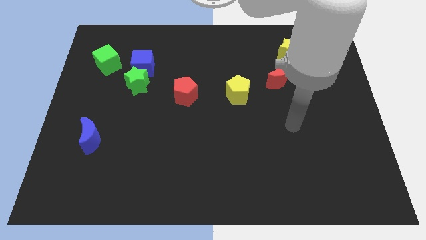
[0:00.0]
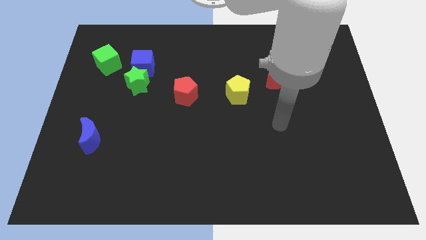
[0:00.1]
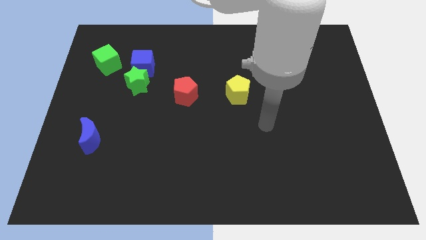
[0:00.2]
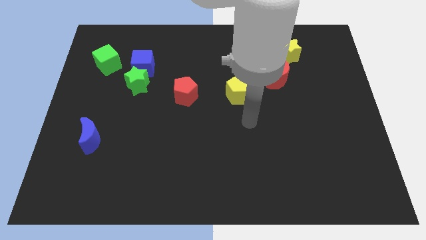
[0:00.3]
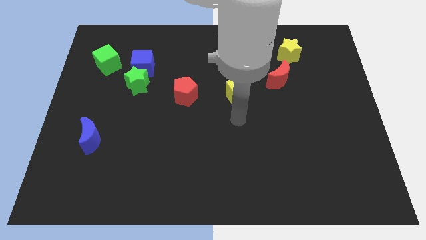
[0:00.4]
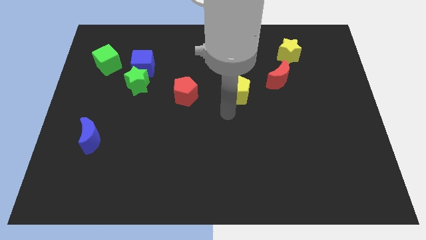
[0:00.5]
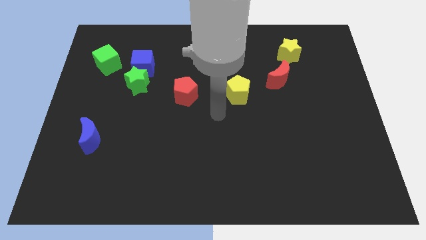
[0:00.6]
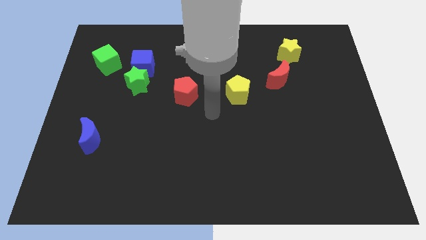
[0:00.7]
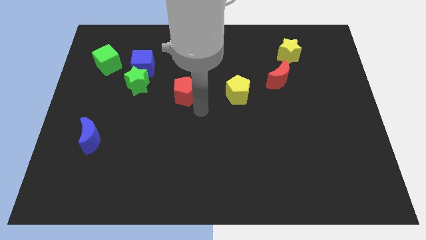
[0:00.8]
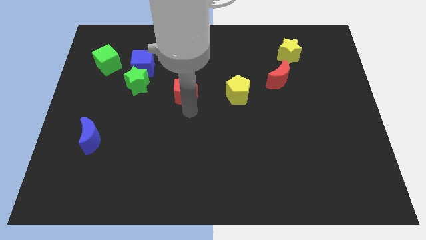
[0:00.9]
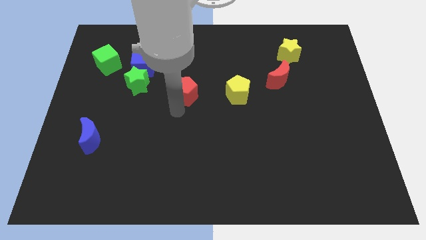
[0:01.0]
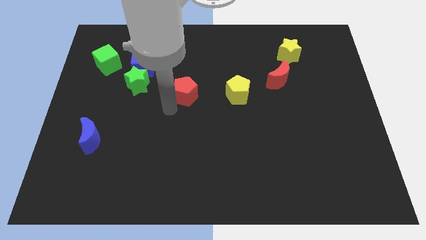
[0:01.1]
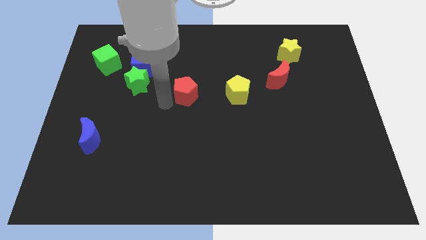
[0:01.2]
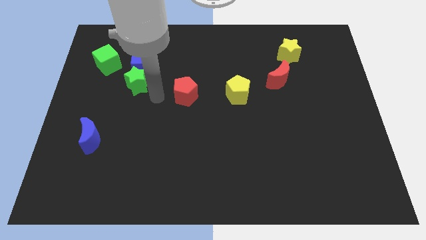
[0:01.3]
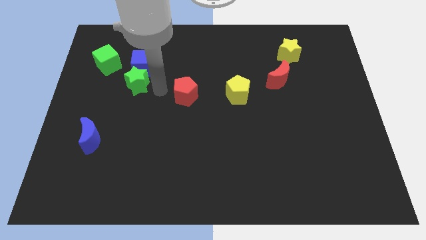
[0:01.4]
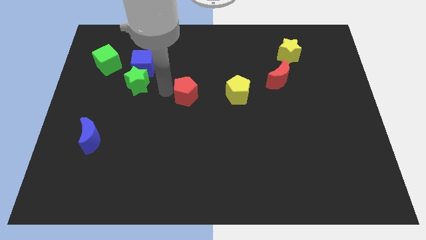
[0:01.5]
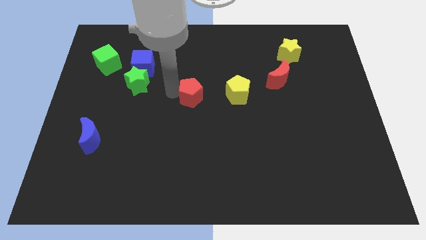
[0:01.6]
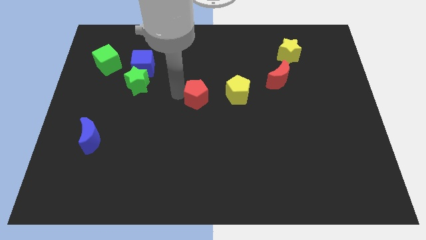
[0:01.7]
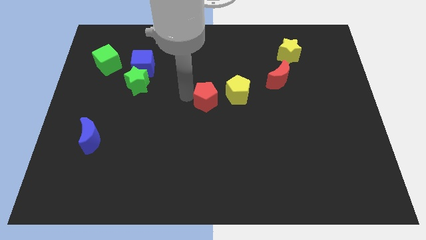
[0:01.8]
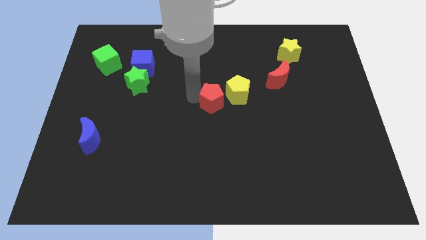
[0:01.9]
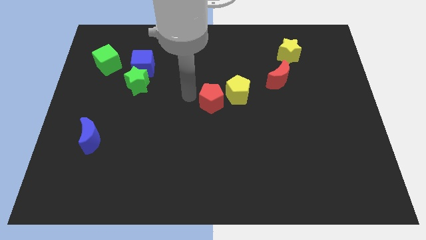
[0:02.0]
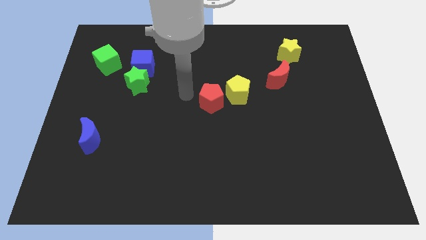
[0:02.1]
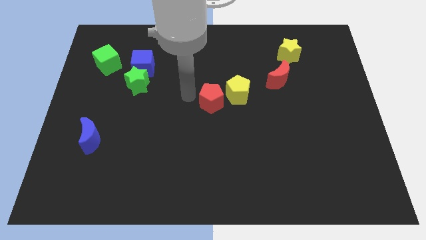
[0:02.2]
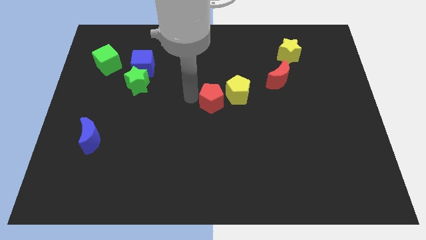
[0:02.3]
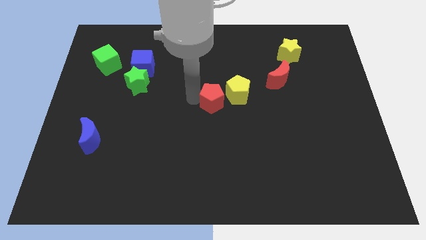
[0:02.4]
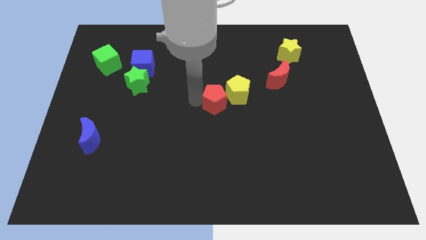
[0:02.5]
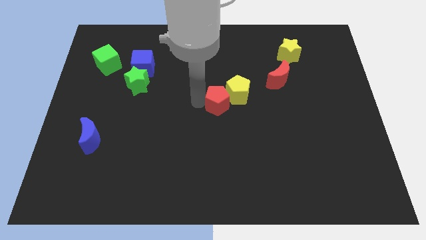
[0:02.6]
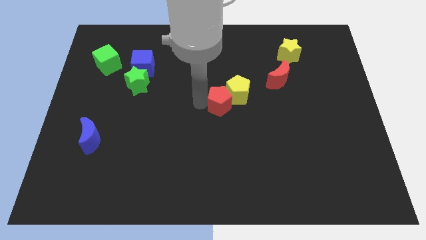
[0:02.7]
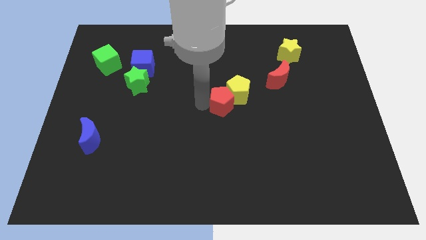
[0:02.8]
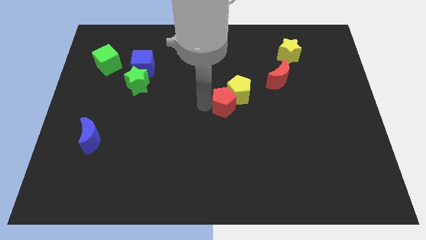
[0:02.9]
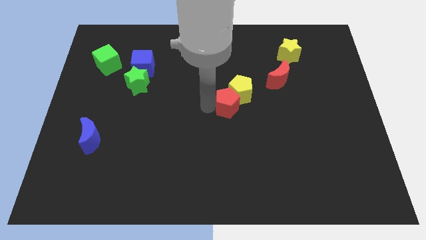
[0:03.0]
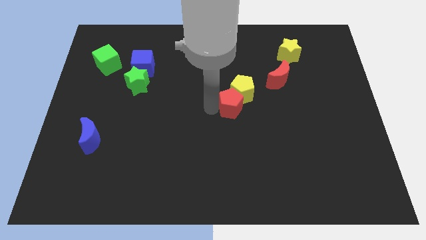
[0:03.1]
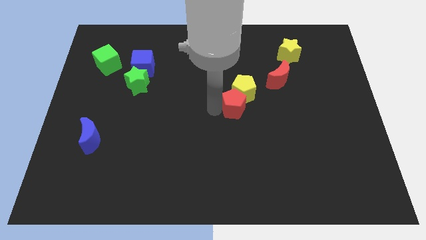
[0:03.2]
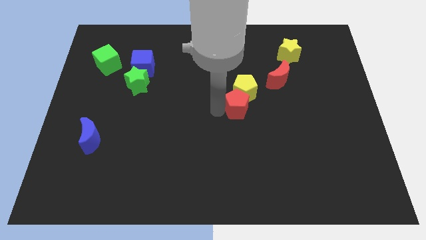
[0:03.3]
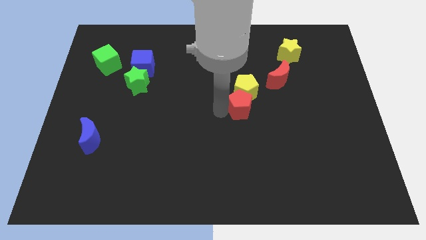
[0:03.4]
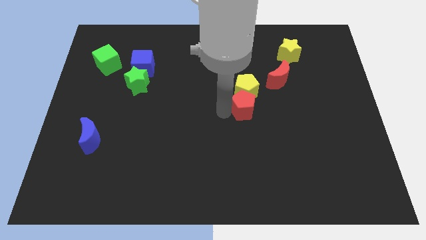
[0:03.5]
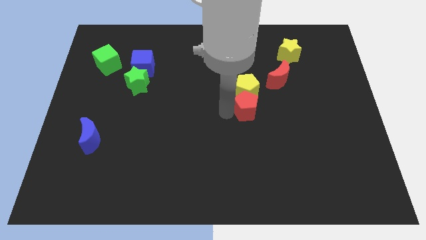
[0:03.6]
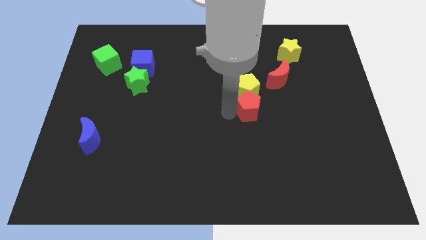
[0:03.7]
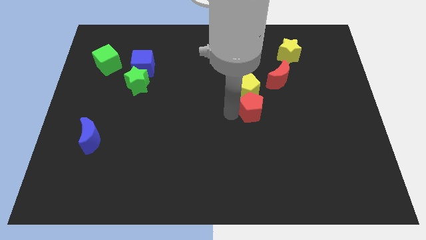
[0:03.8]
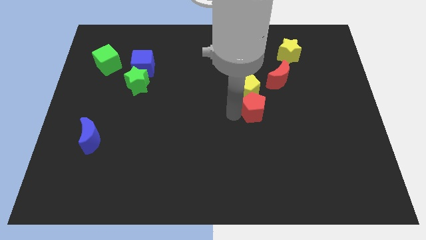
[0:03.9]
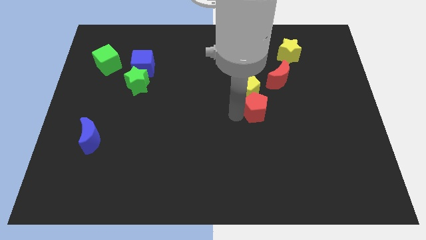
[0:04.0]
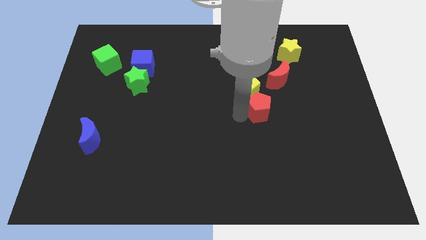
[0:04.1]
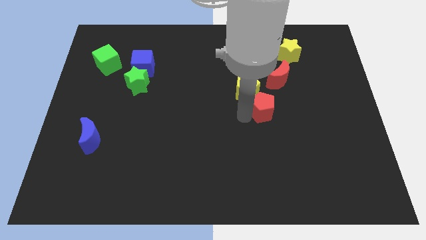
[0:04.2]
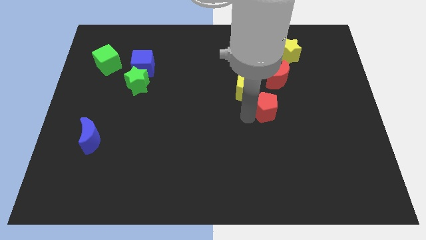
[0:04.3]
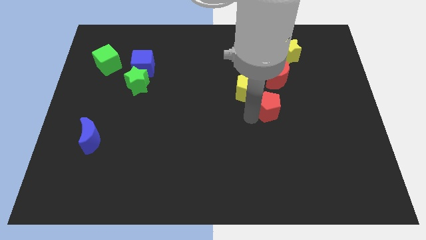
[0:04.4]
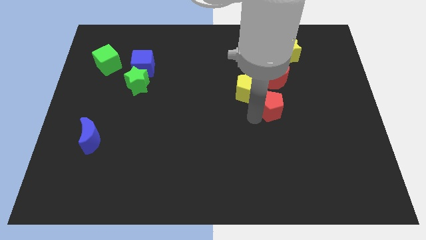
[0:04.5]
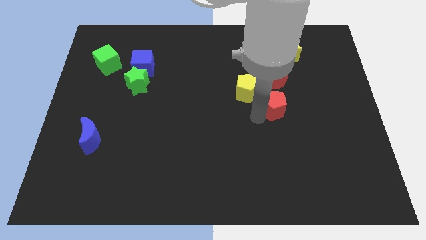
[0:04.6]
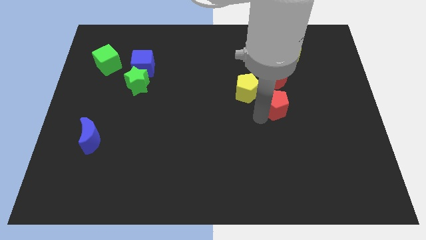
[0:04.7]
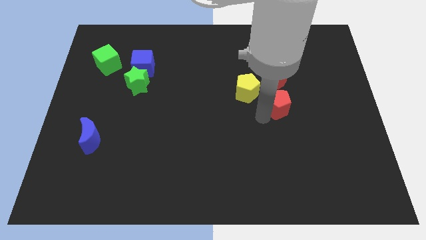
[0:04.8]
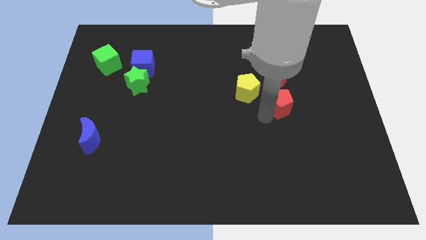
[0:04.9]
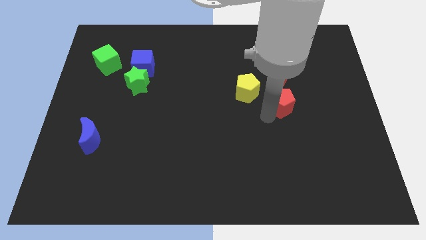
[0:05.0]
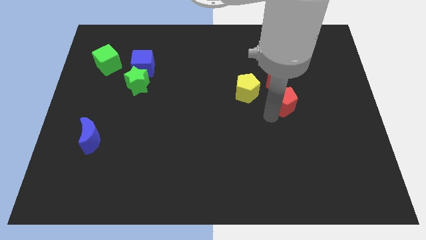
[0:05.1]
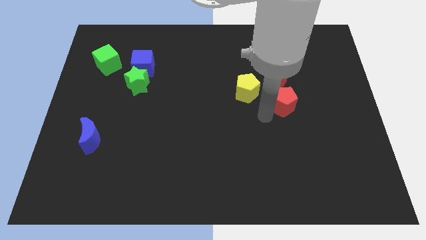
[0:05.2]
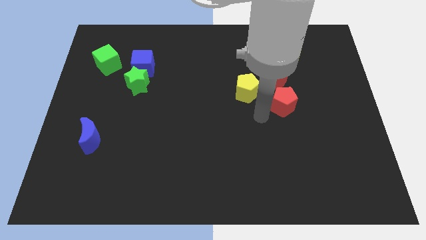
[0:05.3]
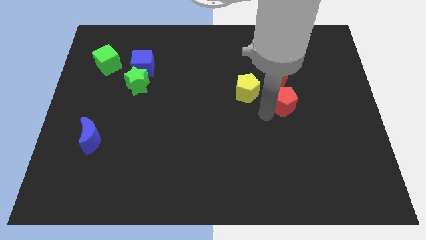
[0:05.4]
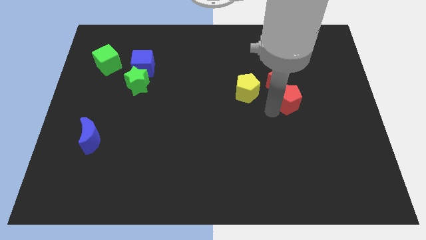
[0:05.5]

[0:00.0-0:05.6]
move the red pentagon to the bottom right side of the red moon

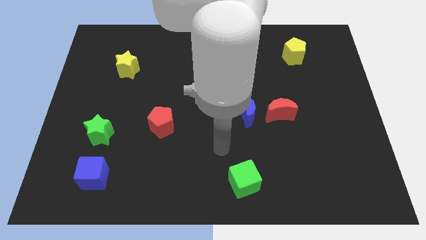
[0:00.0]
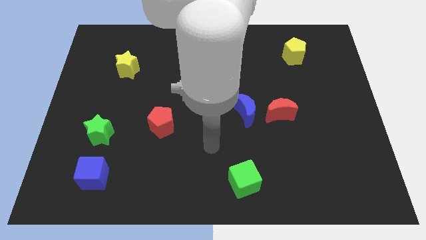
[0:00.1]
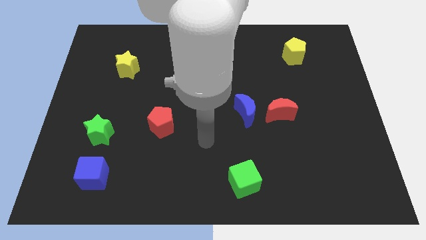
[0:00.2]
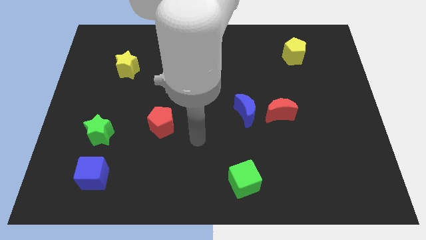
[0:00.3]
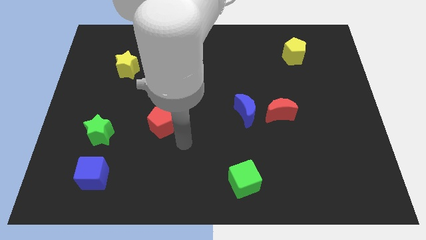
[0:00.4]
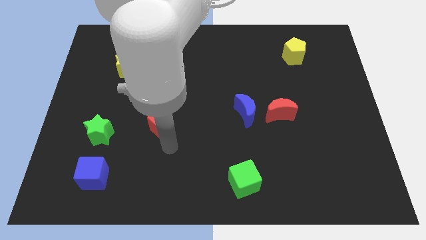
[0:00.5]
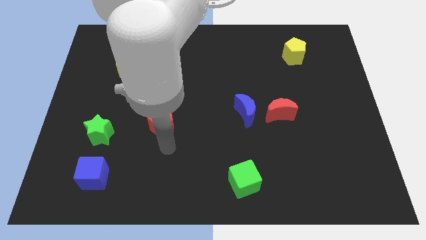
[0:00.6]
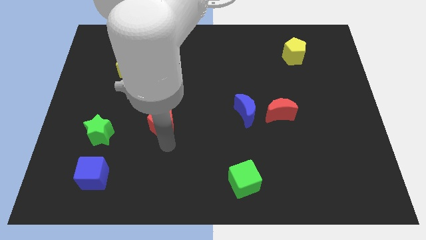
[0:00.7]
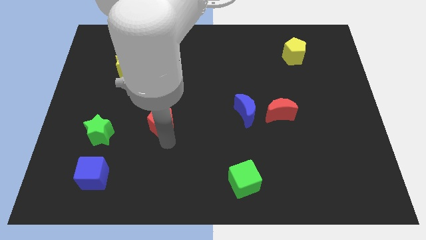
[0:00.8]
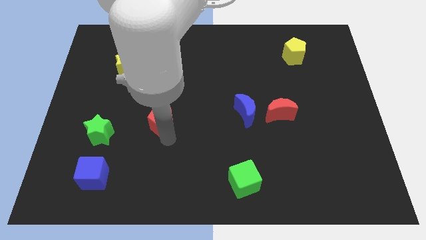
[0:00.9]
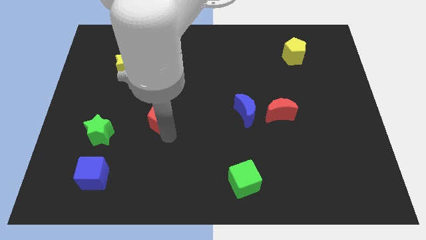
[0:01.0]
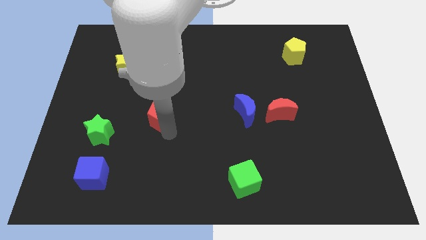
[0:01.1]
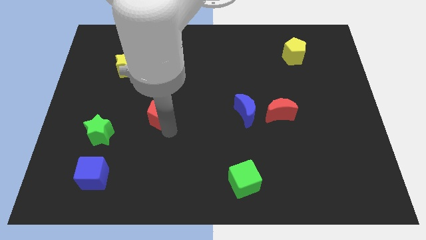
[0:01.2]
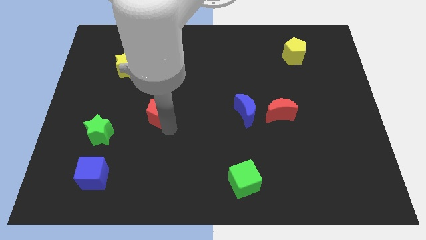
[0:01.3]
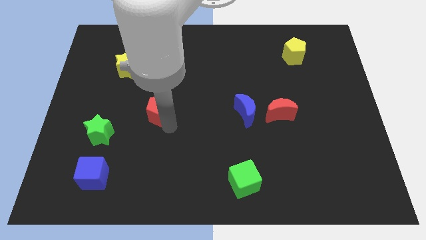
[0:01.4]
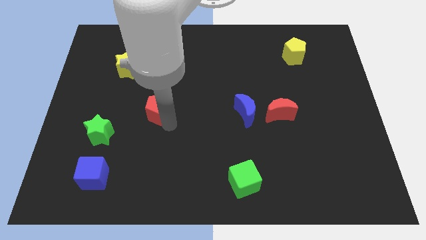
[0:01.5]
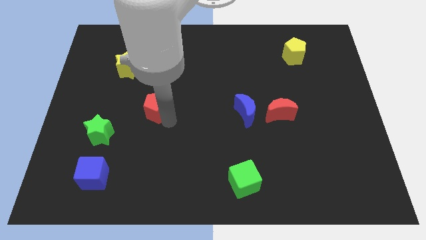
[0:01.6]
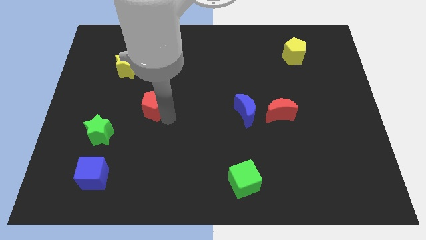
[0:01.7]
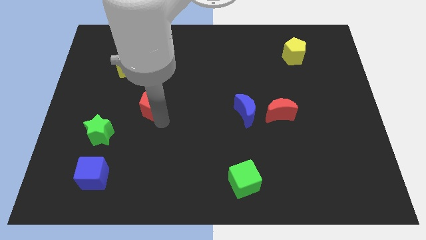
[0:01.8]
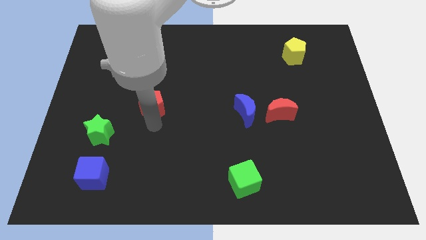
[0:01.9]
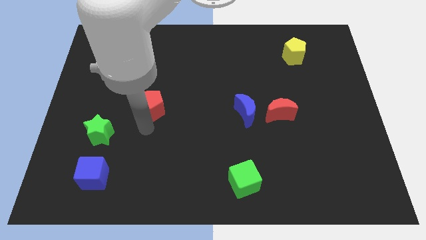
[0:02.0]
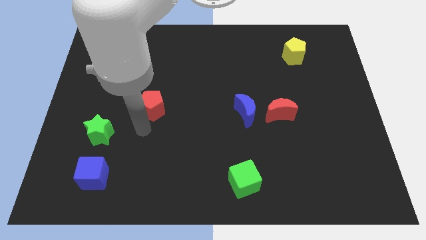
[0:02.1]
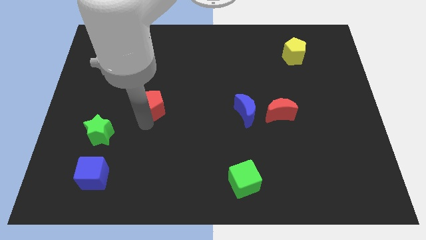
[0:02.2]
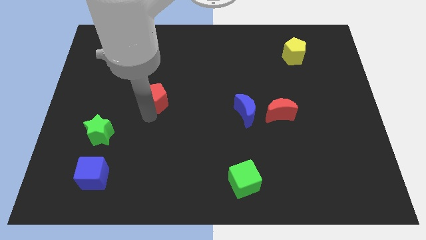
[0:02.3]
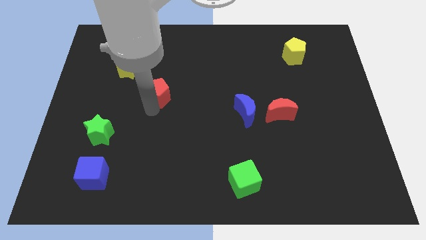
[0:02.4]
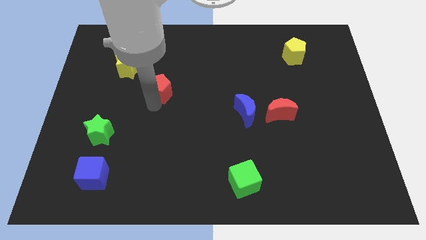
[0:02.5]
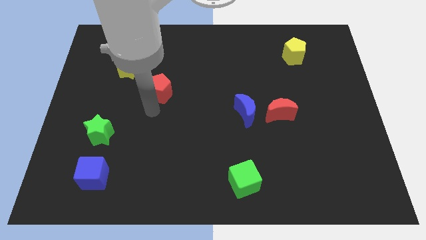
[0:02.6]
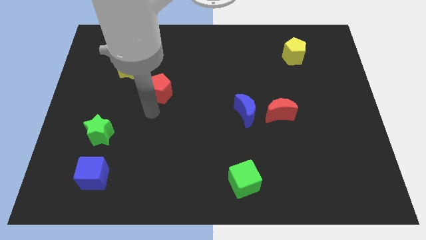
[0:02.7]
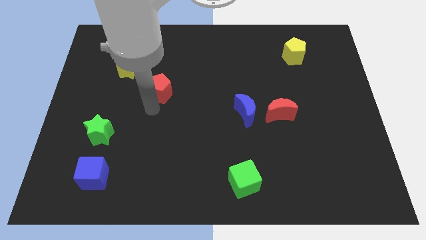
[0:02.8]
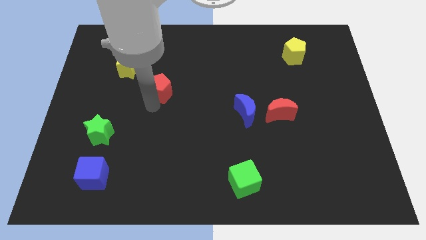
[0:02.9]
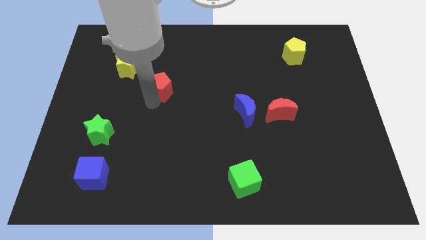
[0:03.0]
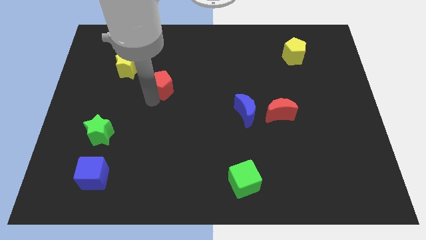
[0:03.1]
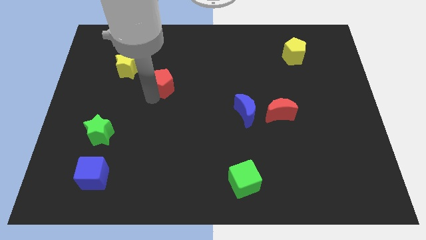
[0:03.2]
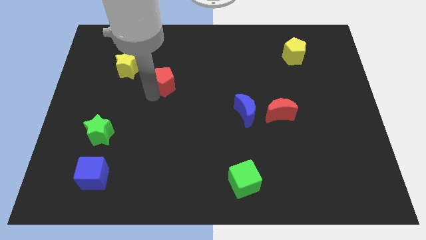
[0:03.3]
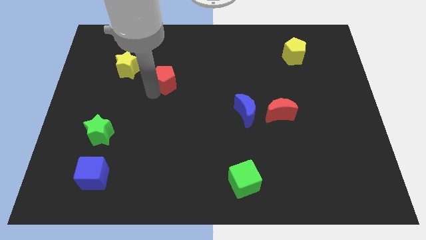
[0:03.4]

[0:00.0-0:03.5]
put the red pentagon to the right side of the yellow star
